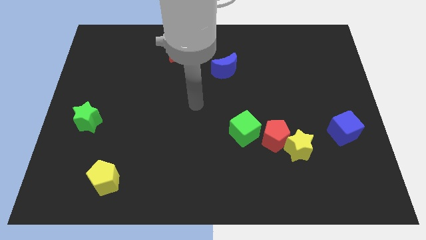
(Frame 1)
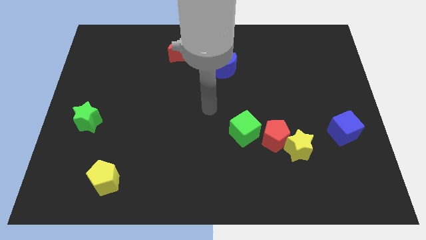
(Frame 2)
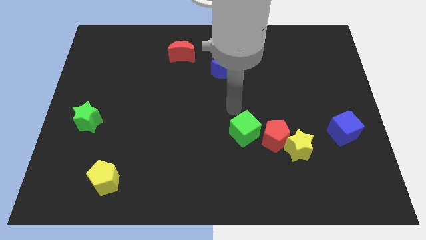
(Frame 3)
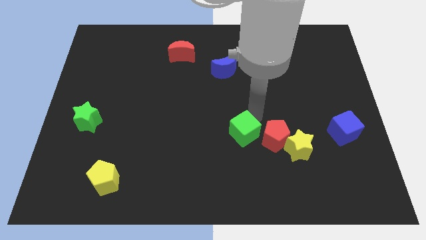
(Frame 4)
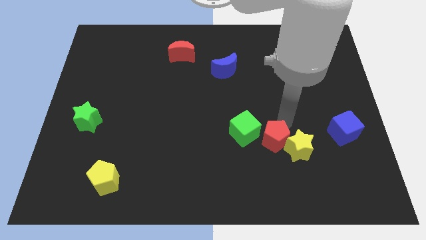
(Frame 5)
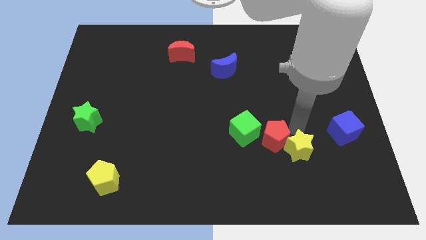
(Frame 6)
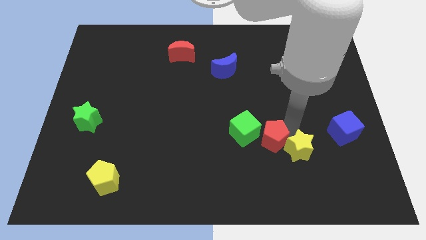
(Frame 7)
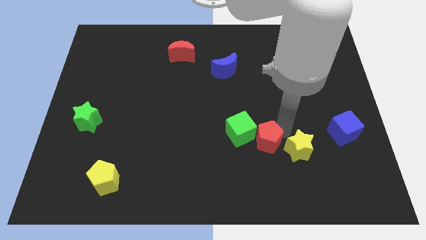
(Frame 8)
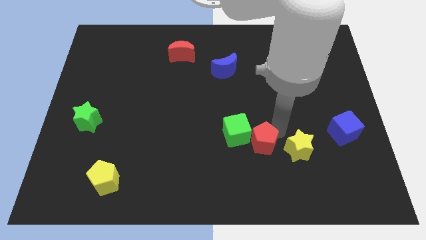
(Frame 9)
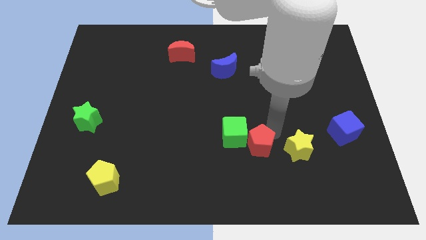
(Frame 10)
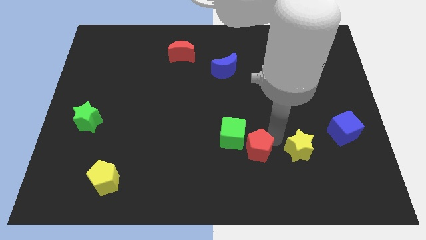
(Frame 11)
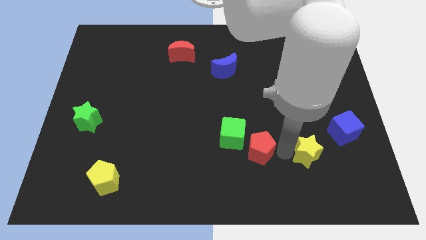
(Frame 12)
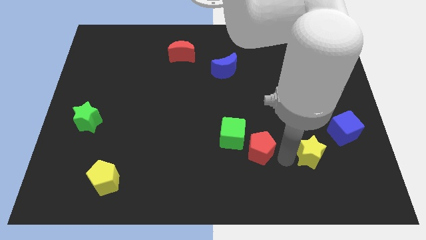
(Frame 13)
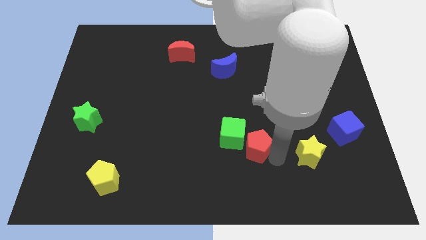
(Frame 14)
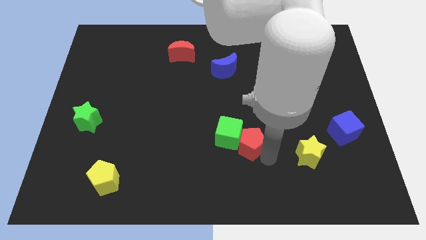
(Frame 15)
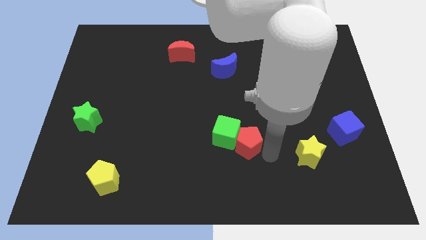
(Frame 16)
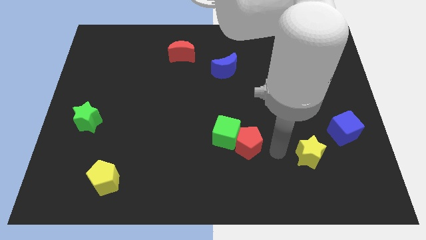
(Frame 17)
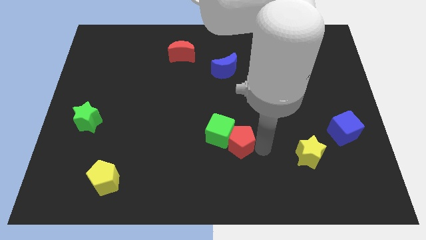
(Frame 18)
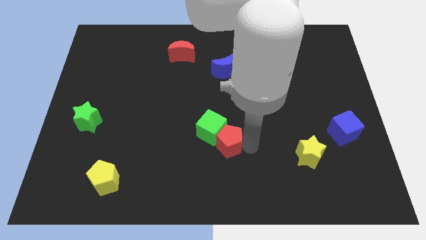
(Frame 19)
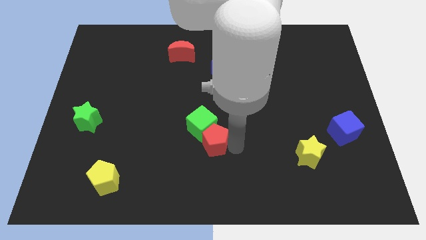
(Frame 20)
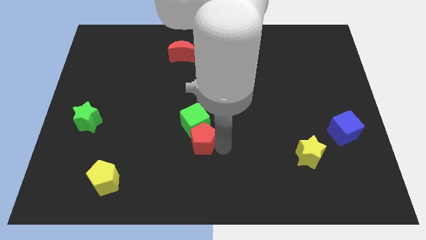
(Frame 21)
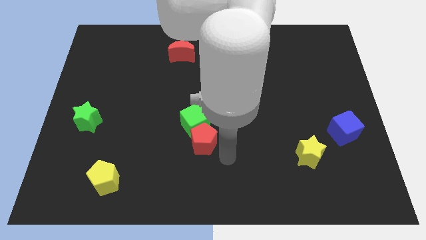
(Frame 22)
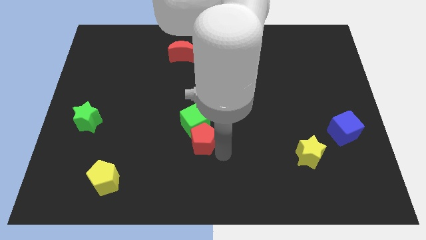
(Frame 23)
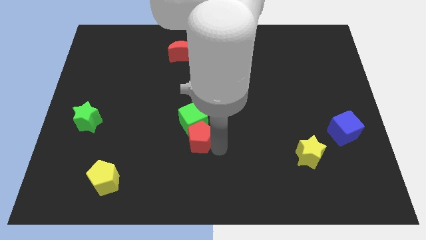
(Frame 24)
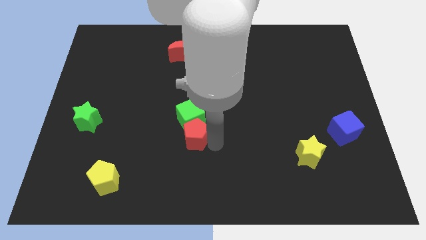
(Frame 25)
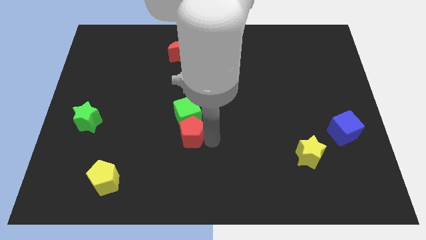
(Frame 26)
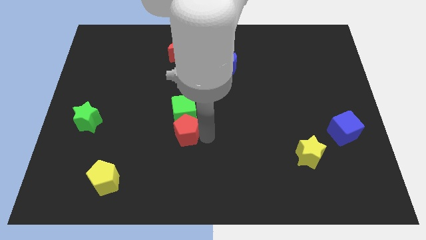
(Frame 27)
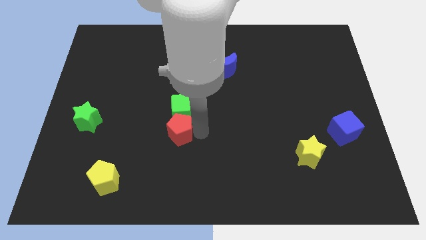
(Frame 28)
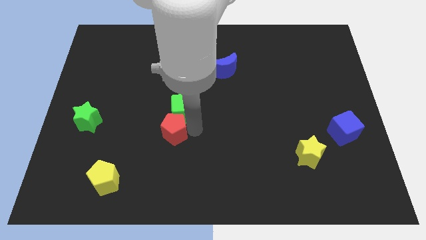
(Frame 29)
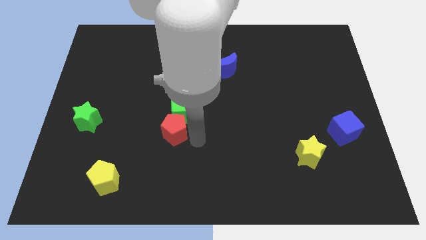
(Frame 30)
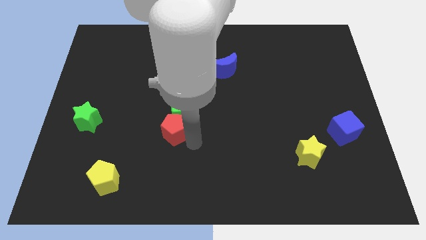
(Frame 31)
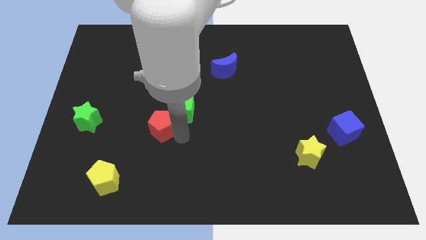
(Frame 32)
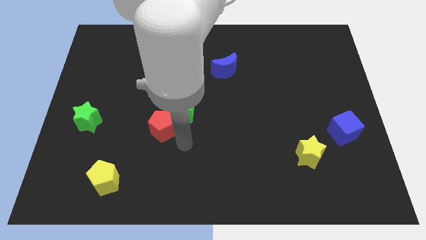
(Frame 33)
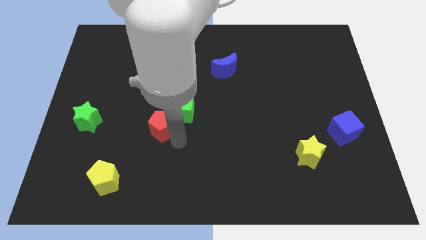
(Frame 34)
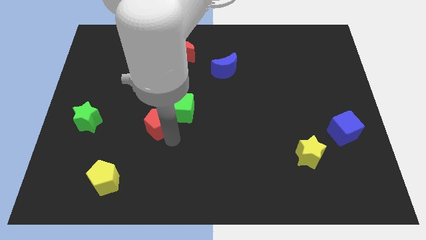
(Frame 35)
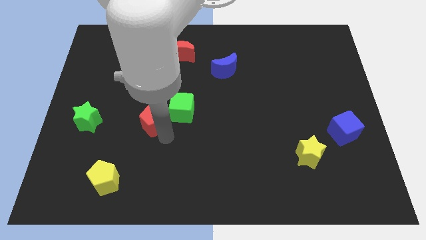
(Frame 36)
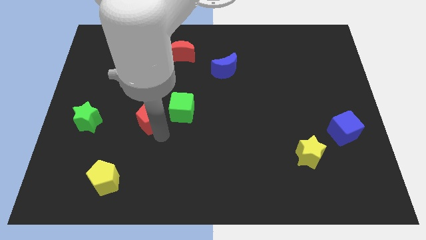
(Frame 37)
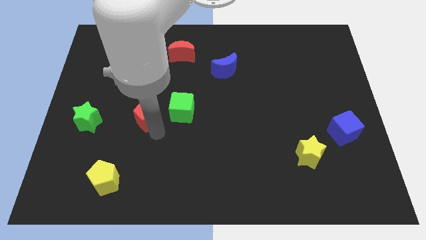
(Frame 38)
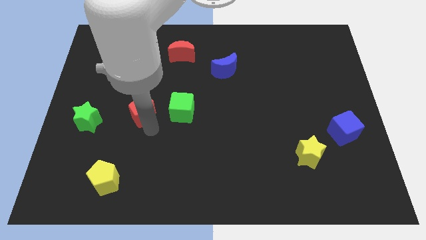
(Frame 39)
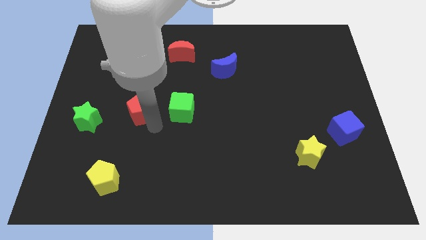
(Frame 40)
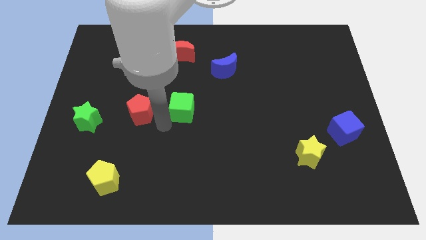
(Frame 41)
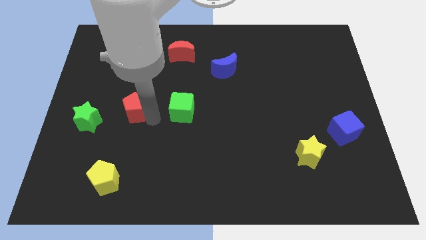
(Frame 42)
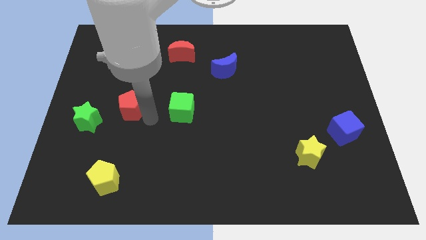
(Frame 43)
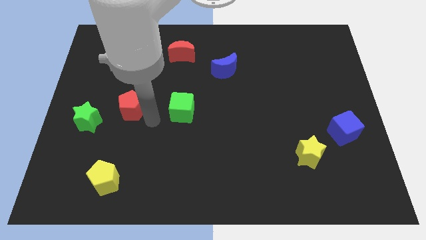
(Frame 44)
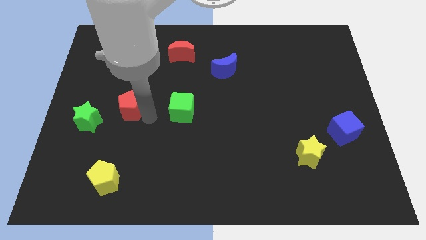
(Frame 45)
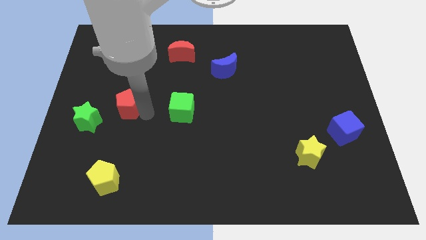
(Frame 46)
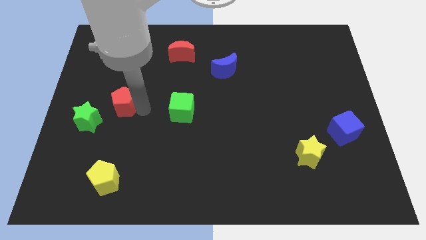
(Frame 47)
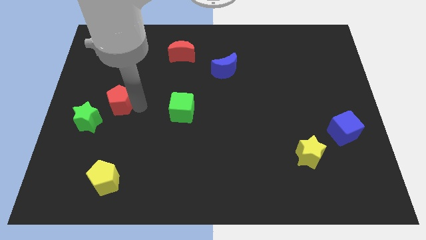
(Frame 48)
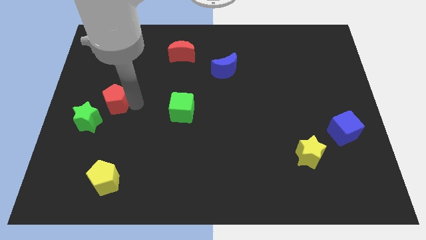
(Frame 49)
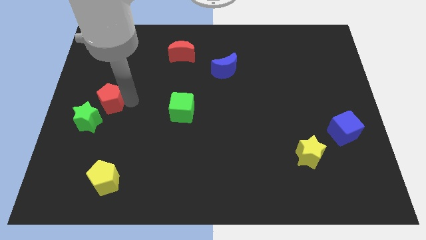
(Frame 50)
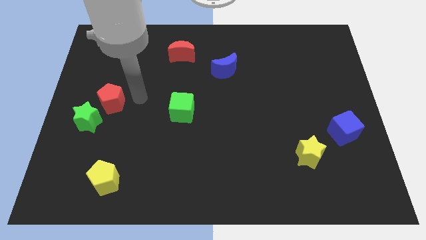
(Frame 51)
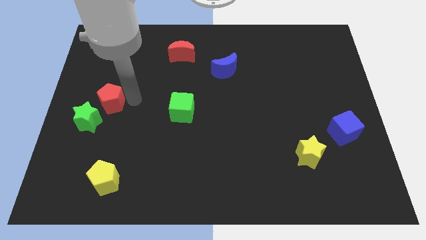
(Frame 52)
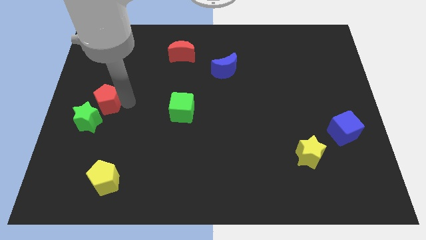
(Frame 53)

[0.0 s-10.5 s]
put the red pentagon to the left side

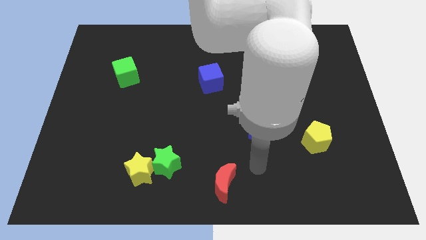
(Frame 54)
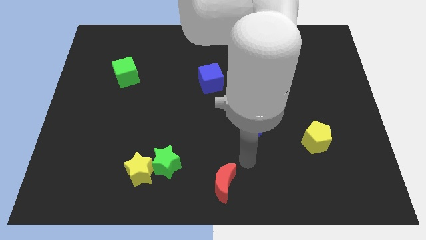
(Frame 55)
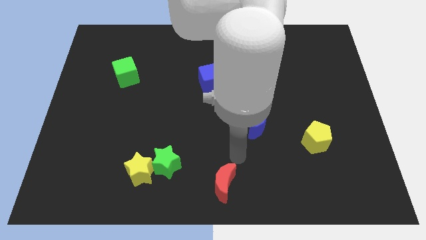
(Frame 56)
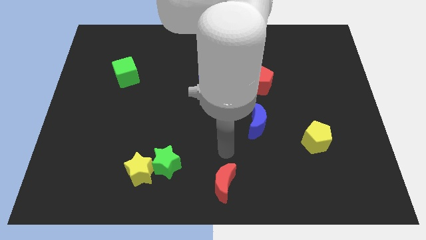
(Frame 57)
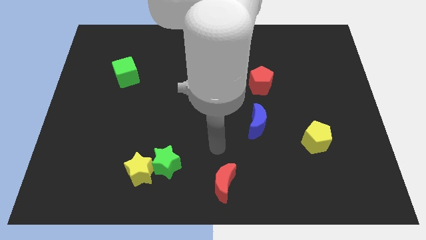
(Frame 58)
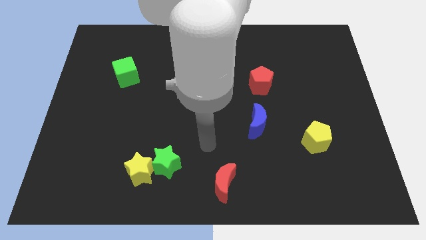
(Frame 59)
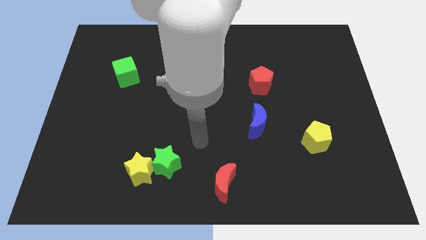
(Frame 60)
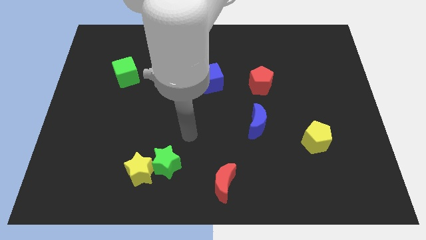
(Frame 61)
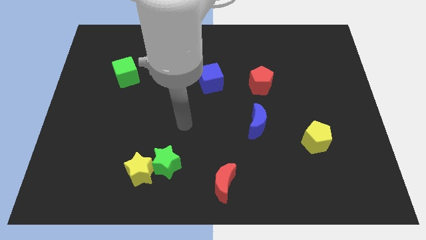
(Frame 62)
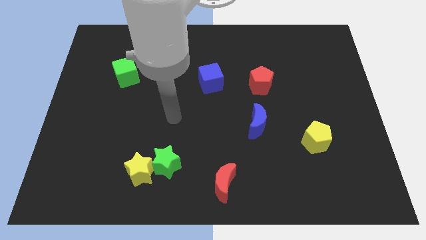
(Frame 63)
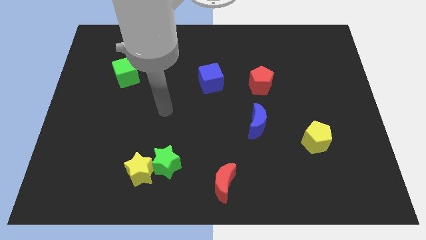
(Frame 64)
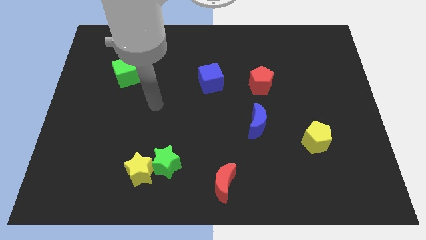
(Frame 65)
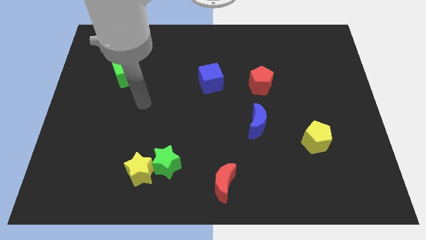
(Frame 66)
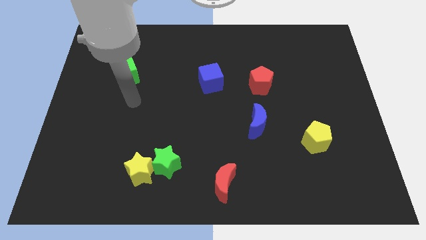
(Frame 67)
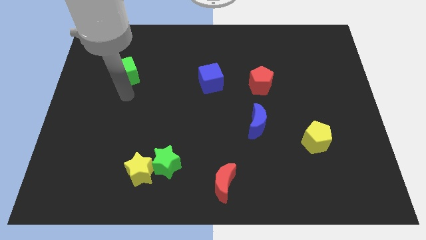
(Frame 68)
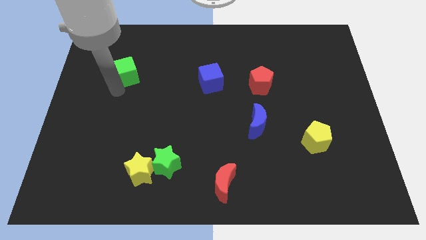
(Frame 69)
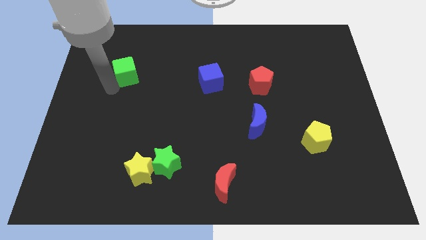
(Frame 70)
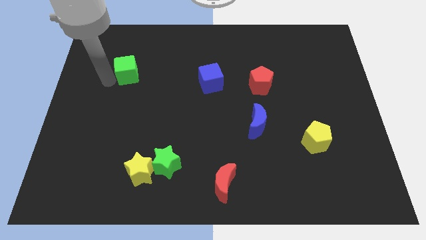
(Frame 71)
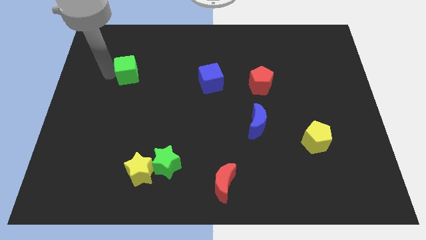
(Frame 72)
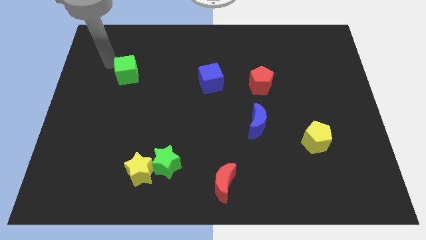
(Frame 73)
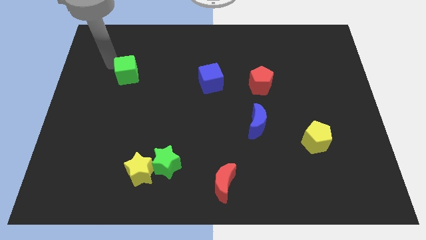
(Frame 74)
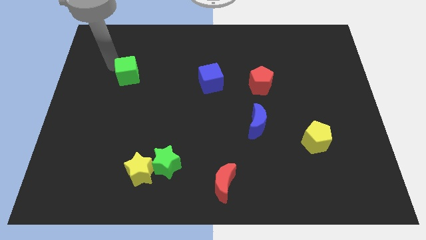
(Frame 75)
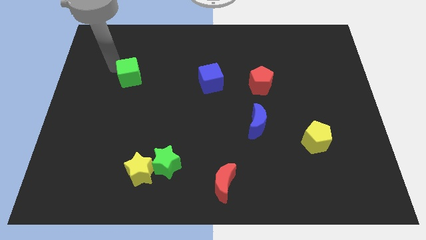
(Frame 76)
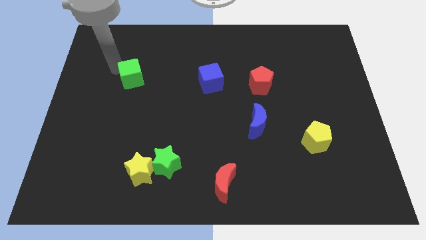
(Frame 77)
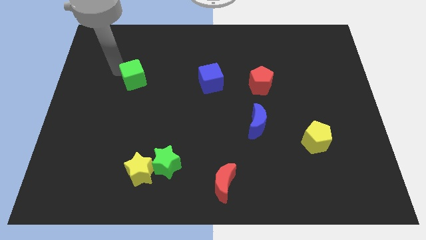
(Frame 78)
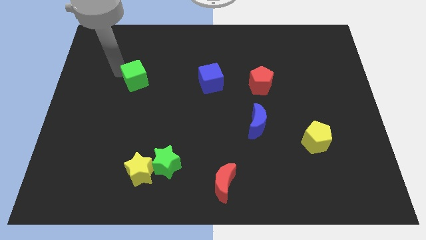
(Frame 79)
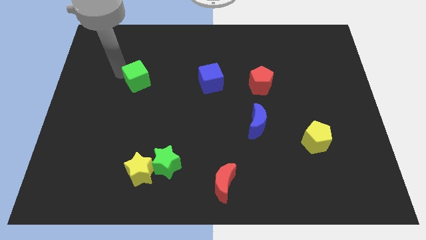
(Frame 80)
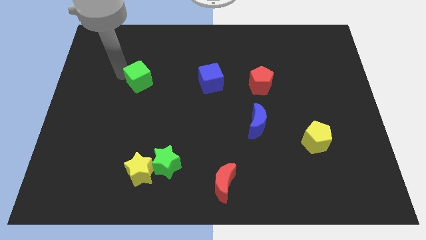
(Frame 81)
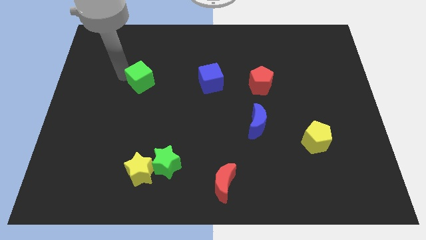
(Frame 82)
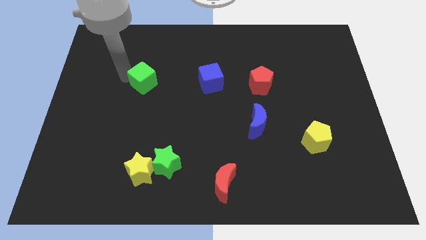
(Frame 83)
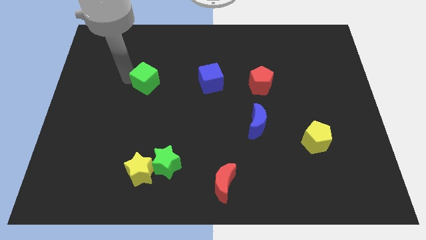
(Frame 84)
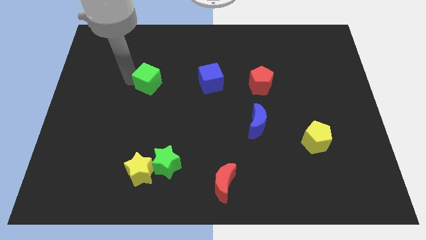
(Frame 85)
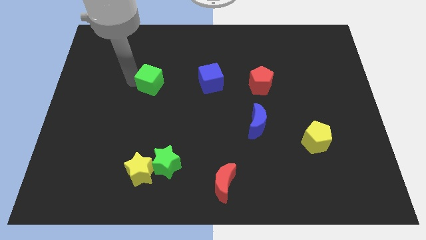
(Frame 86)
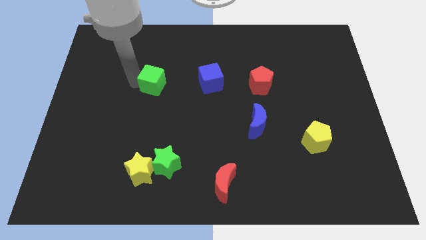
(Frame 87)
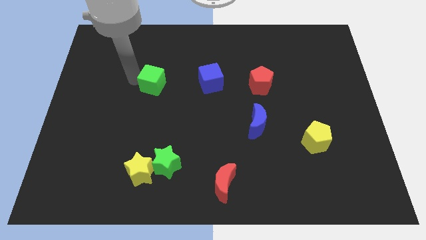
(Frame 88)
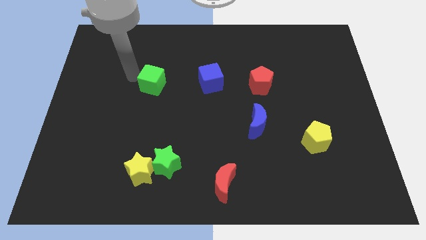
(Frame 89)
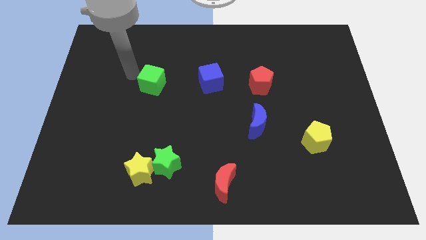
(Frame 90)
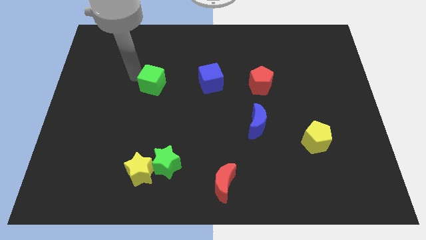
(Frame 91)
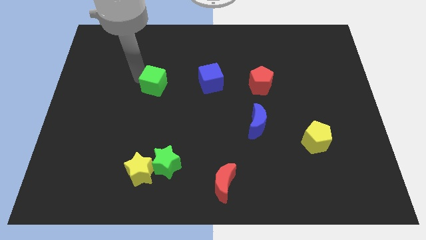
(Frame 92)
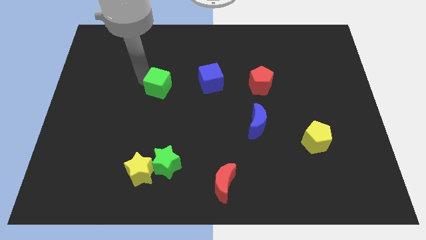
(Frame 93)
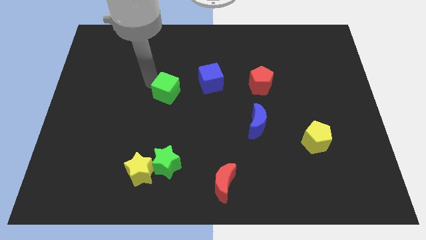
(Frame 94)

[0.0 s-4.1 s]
move the green cube to the center of the board
